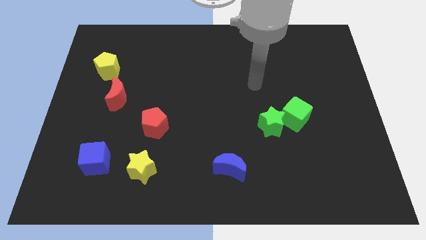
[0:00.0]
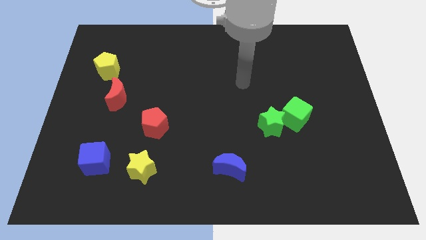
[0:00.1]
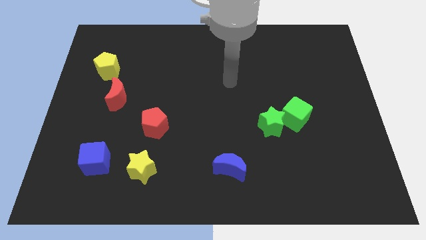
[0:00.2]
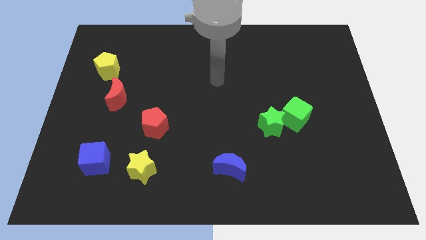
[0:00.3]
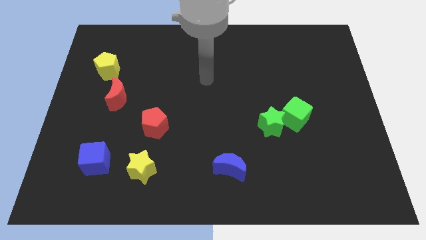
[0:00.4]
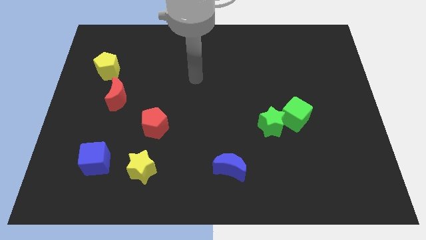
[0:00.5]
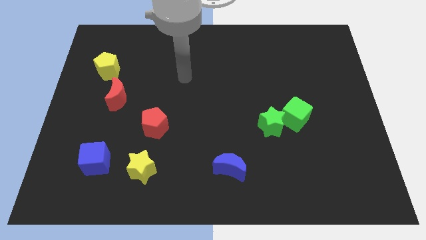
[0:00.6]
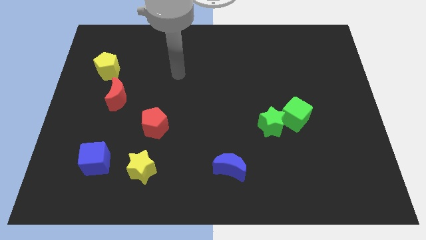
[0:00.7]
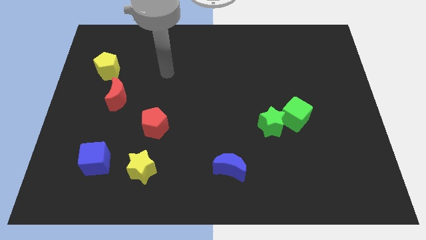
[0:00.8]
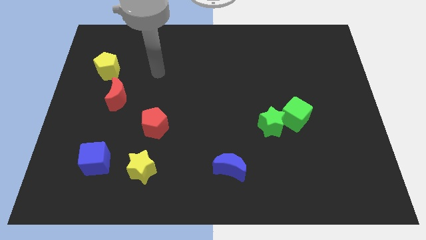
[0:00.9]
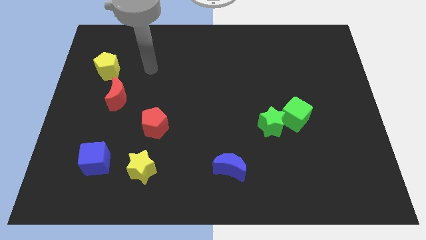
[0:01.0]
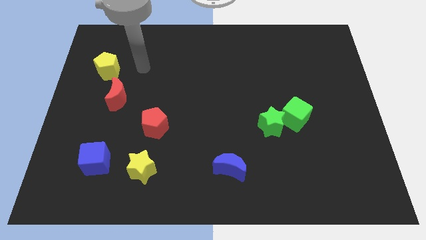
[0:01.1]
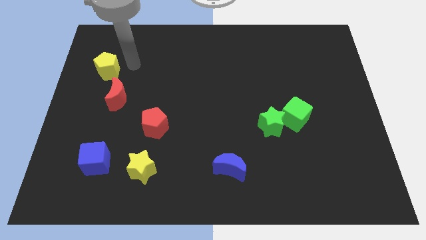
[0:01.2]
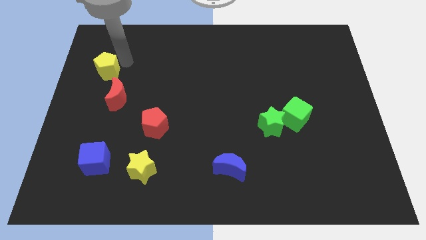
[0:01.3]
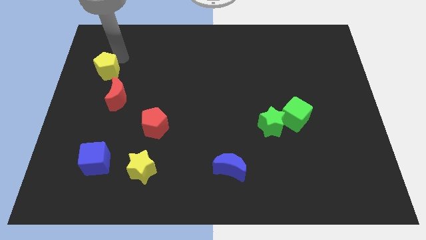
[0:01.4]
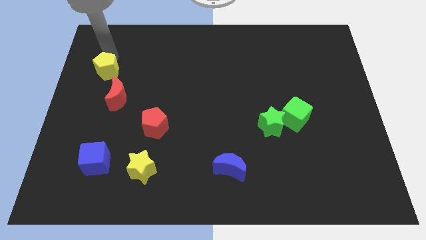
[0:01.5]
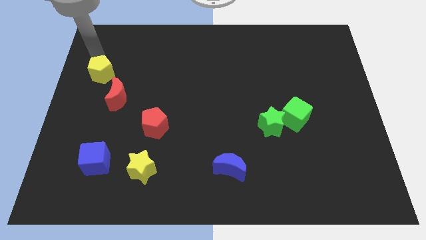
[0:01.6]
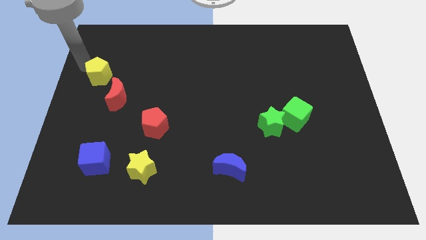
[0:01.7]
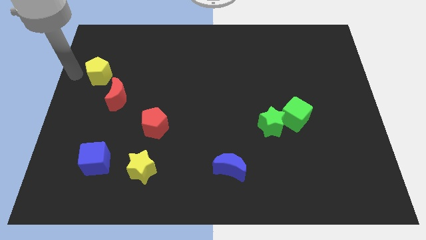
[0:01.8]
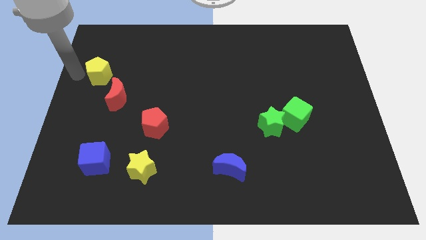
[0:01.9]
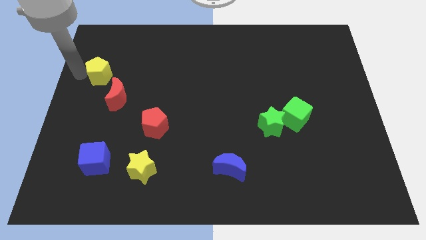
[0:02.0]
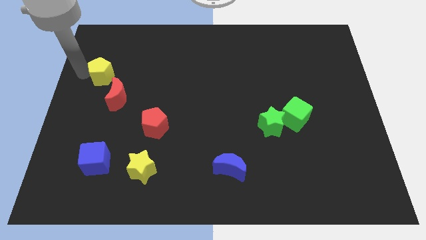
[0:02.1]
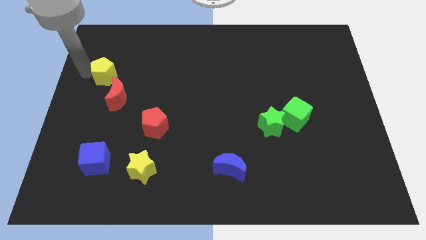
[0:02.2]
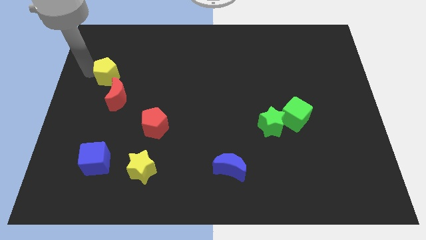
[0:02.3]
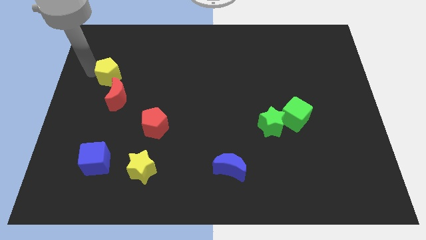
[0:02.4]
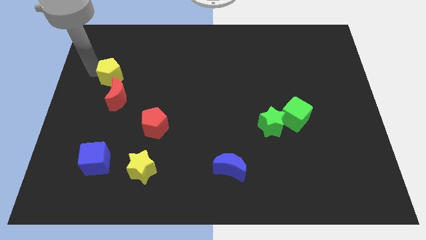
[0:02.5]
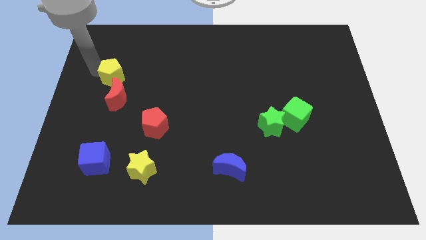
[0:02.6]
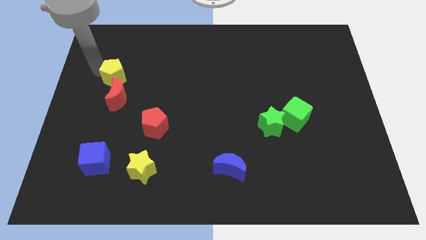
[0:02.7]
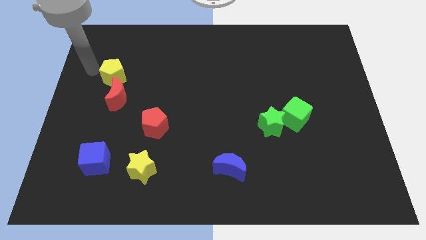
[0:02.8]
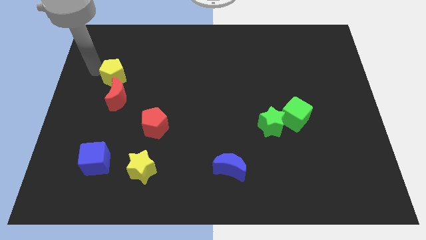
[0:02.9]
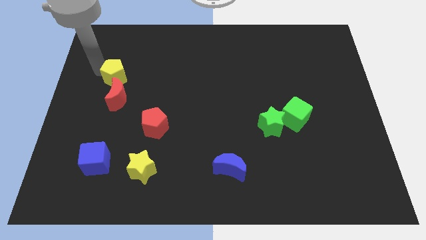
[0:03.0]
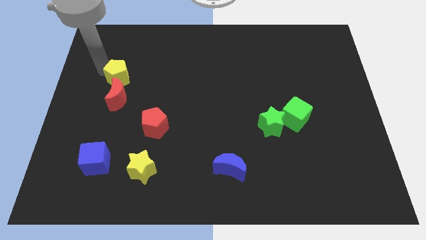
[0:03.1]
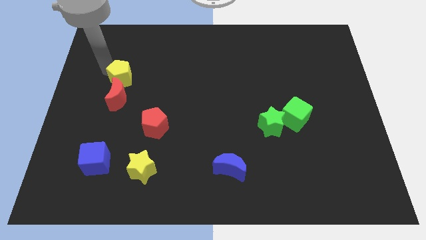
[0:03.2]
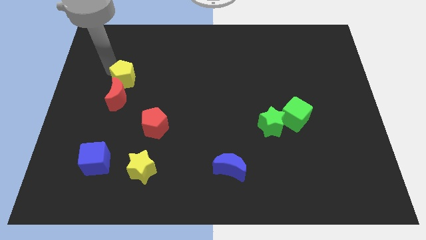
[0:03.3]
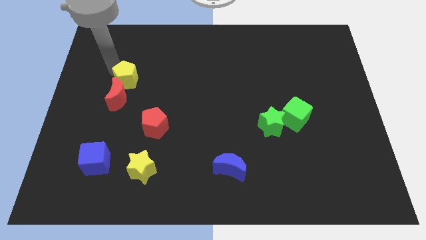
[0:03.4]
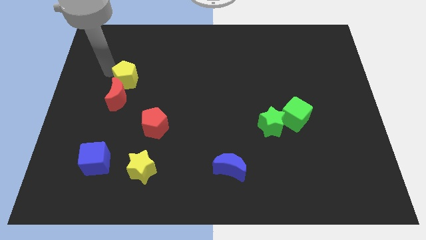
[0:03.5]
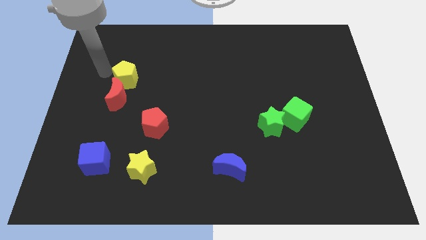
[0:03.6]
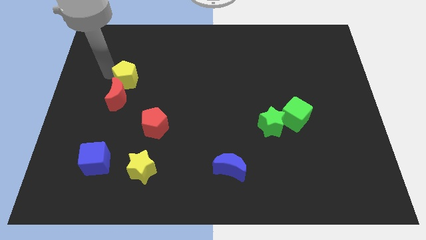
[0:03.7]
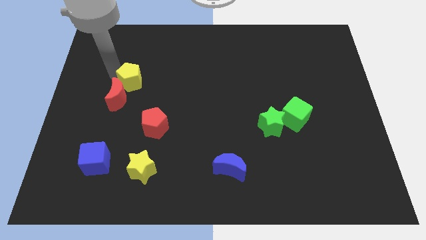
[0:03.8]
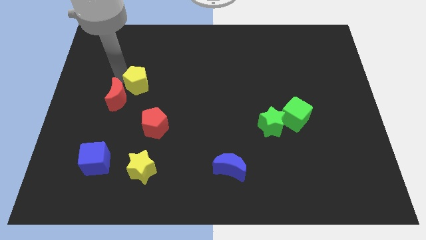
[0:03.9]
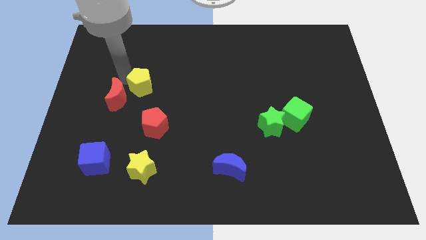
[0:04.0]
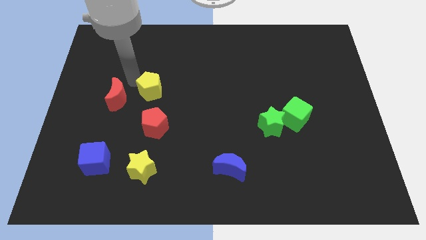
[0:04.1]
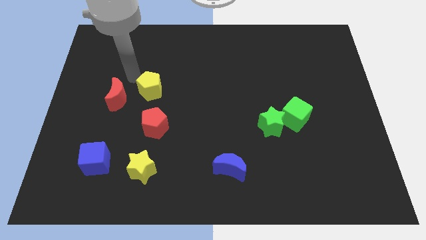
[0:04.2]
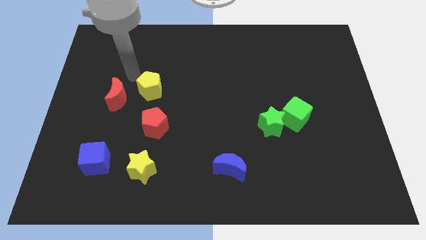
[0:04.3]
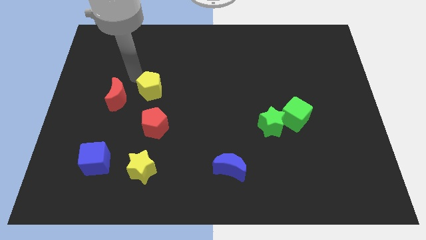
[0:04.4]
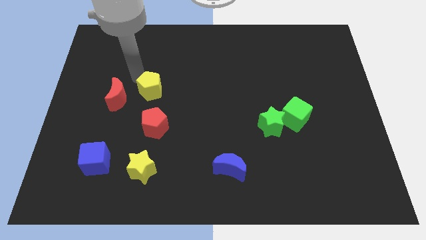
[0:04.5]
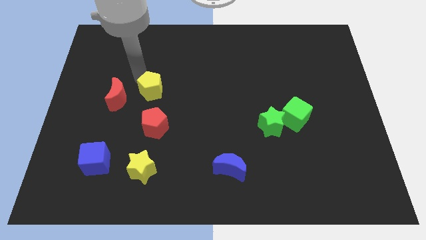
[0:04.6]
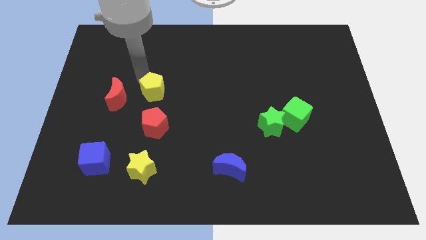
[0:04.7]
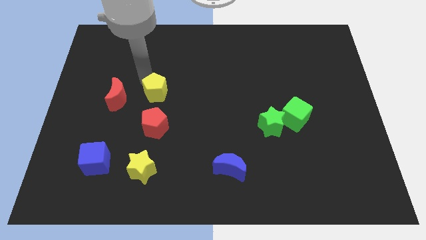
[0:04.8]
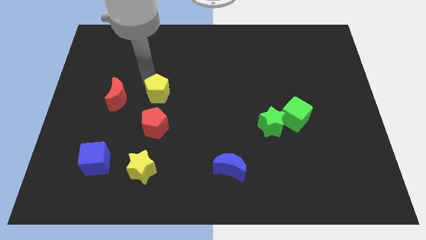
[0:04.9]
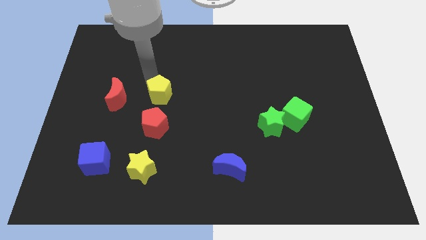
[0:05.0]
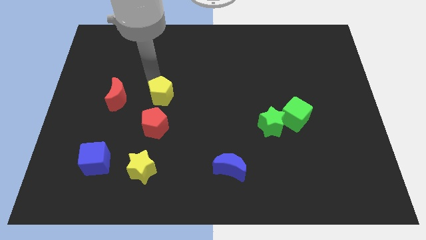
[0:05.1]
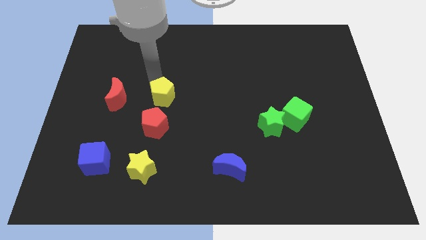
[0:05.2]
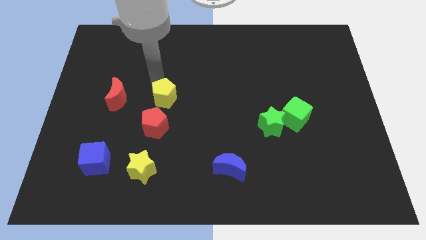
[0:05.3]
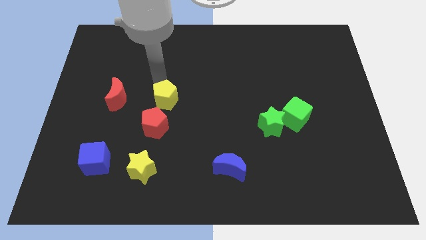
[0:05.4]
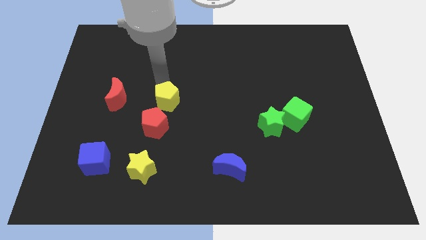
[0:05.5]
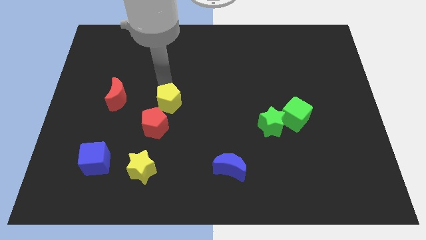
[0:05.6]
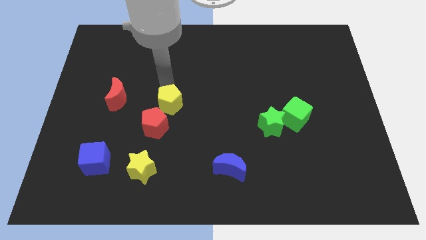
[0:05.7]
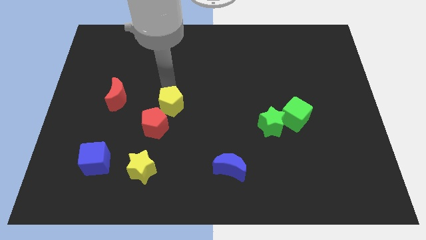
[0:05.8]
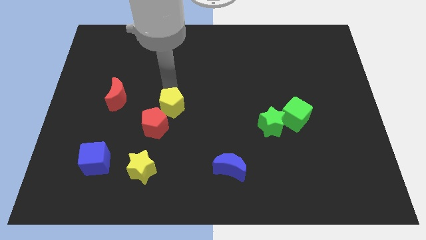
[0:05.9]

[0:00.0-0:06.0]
push the yellow pentagon down and right diagonally

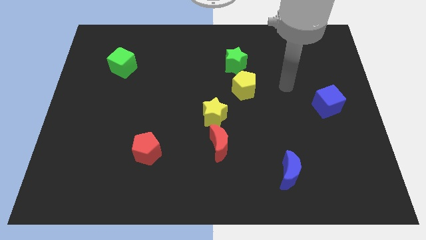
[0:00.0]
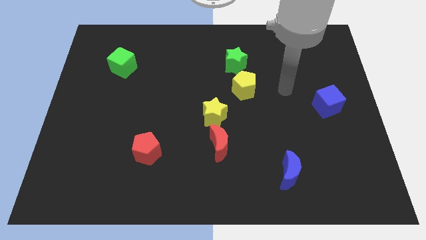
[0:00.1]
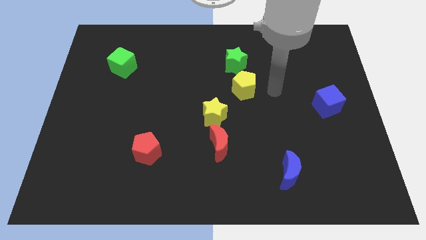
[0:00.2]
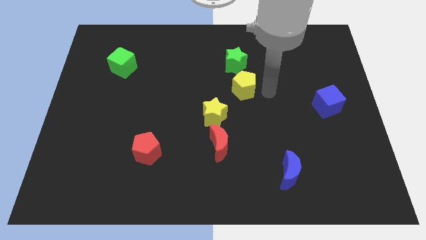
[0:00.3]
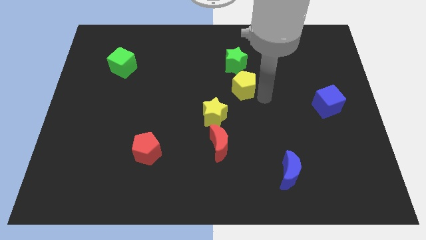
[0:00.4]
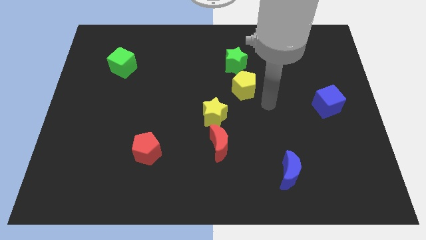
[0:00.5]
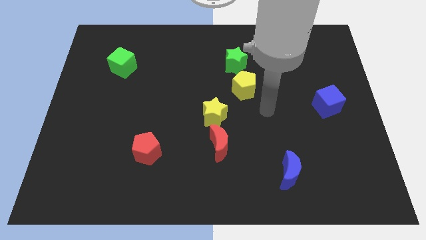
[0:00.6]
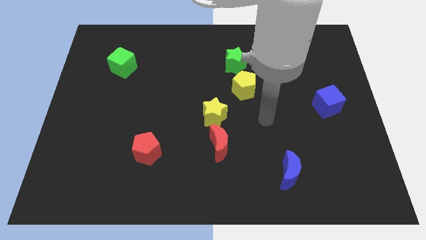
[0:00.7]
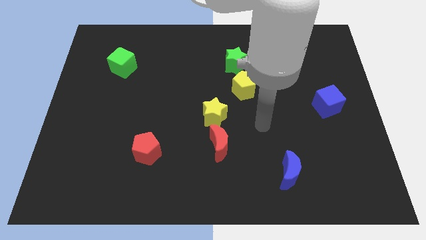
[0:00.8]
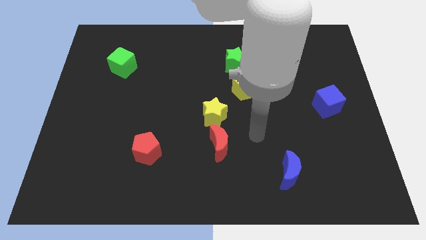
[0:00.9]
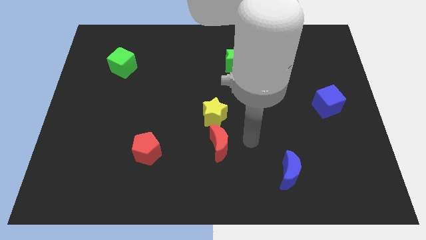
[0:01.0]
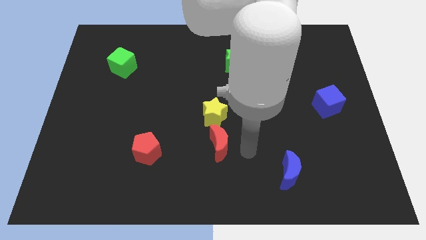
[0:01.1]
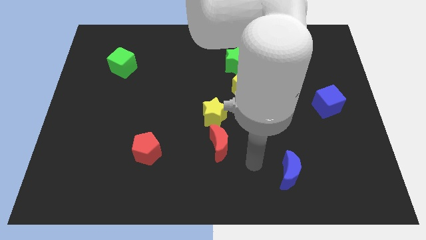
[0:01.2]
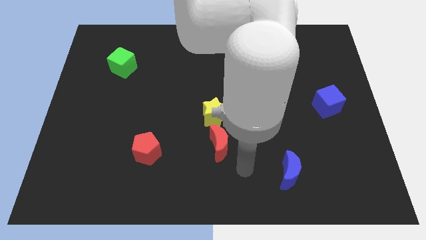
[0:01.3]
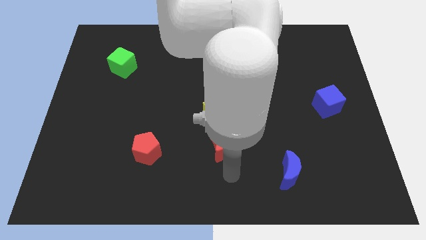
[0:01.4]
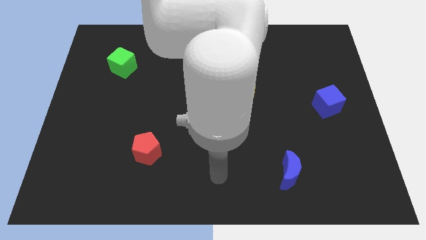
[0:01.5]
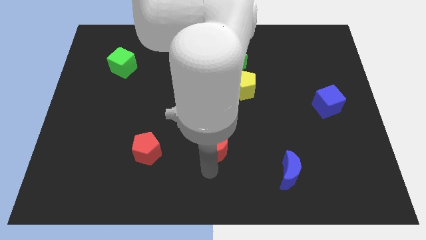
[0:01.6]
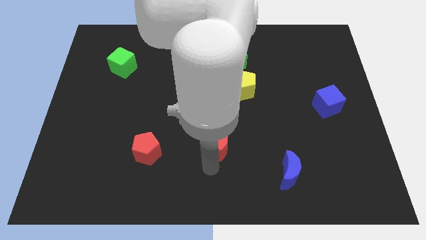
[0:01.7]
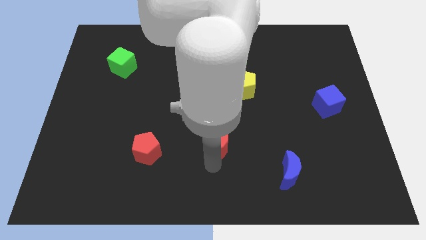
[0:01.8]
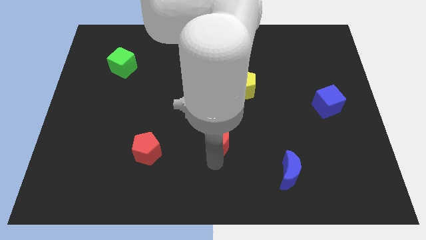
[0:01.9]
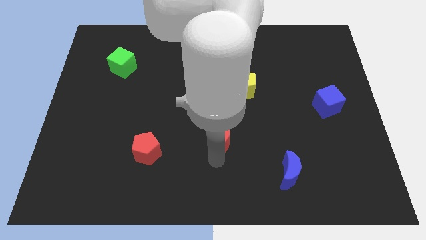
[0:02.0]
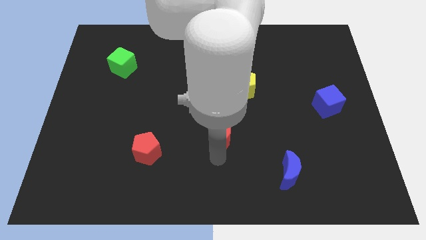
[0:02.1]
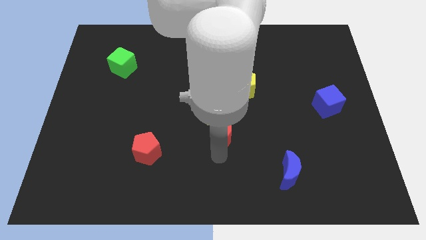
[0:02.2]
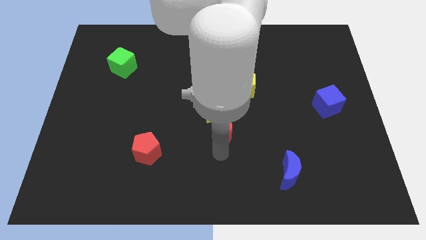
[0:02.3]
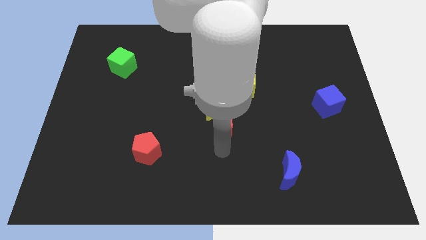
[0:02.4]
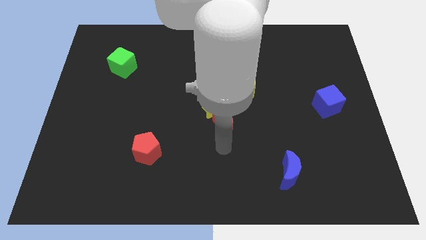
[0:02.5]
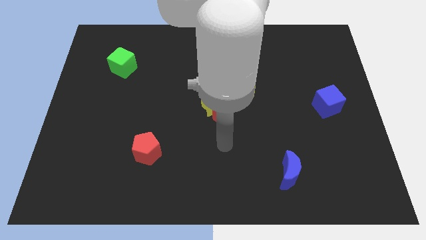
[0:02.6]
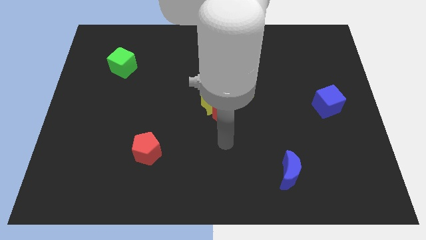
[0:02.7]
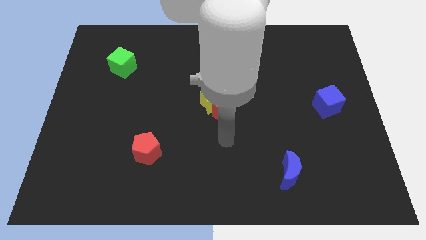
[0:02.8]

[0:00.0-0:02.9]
move the red moon upwards a little
